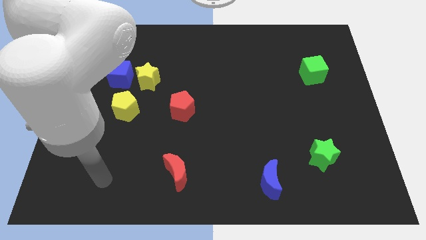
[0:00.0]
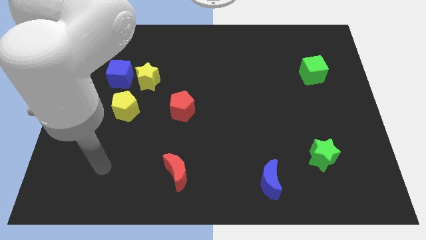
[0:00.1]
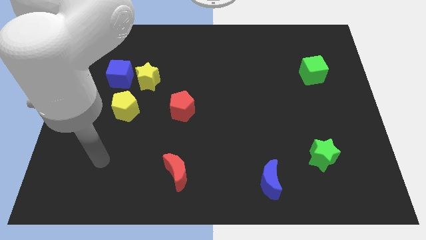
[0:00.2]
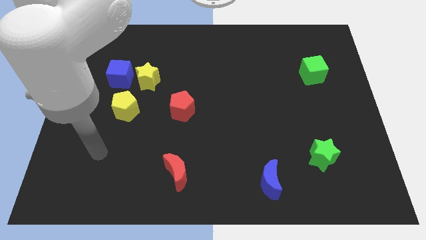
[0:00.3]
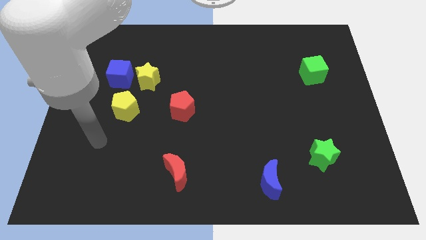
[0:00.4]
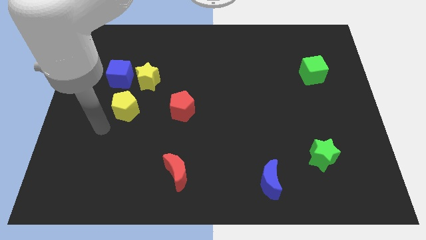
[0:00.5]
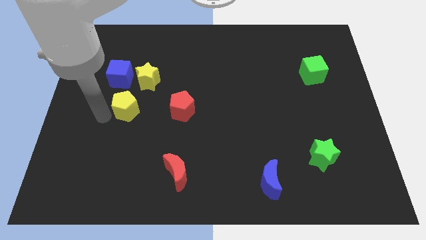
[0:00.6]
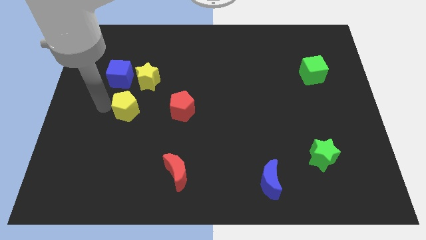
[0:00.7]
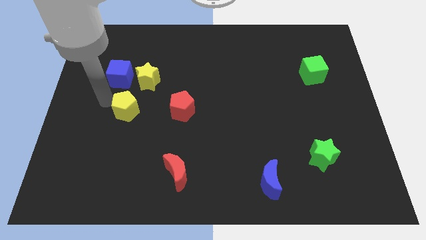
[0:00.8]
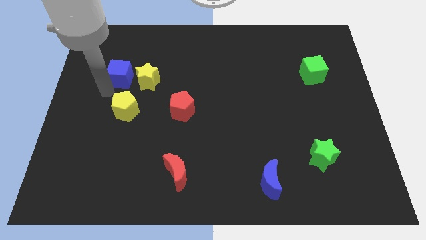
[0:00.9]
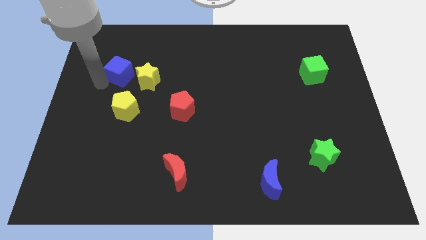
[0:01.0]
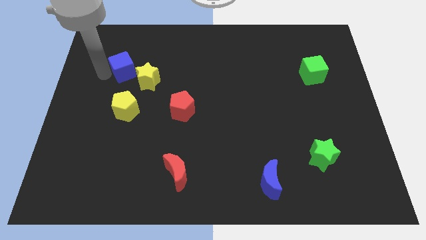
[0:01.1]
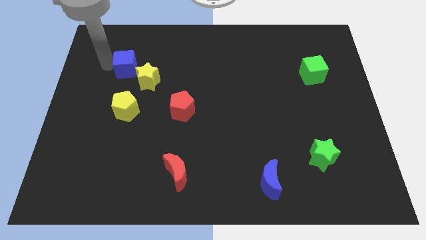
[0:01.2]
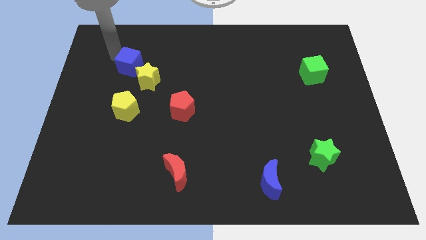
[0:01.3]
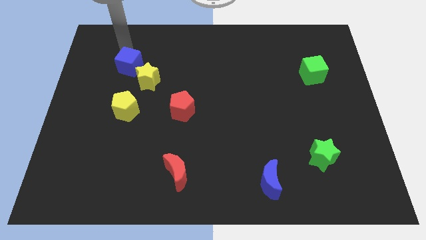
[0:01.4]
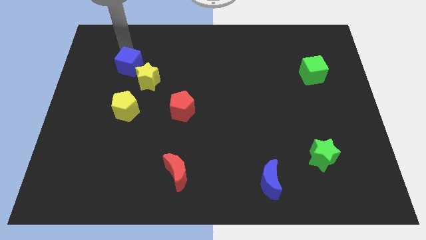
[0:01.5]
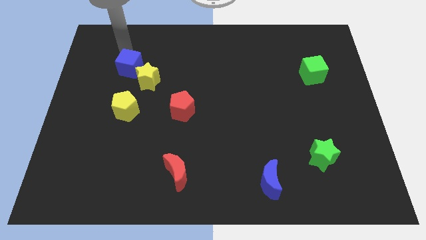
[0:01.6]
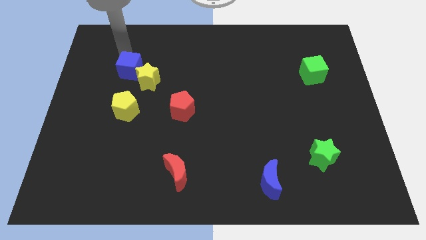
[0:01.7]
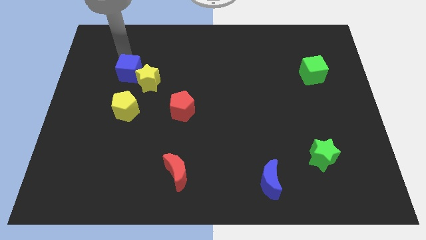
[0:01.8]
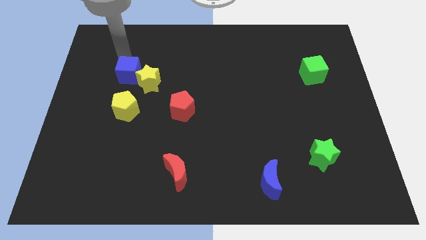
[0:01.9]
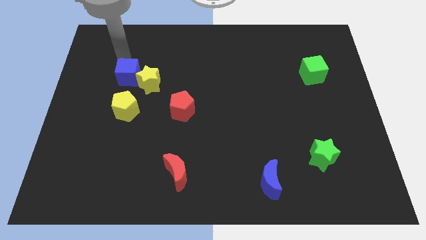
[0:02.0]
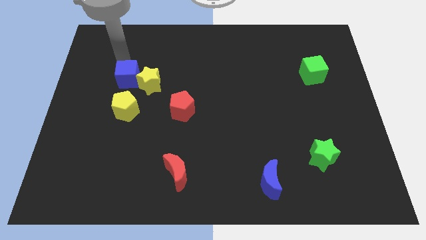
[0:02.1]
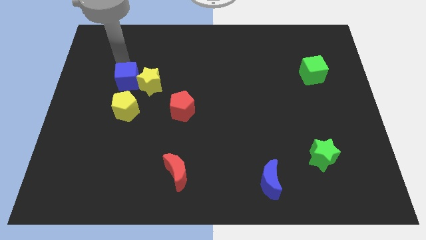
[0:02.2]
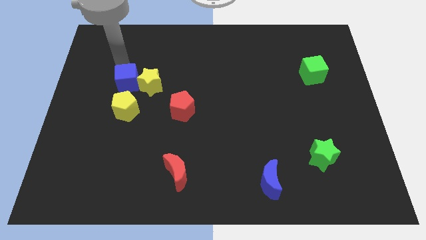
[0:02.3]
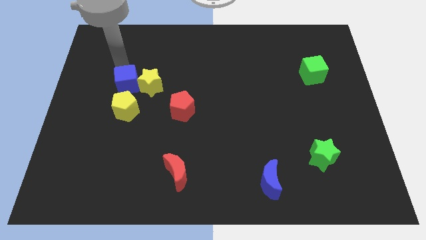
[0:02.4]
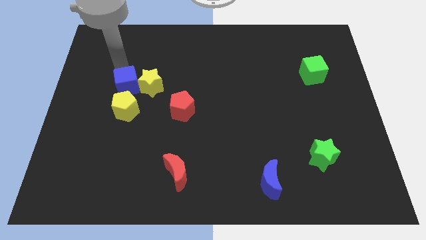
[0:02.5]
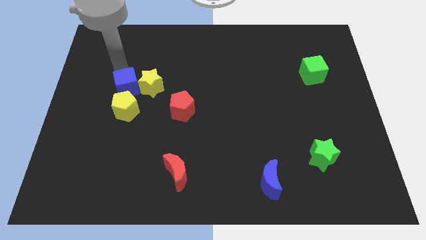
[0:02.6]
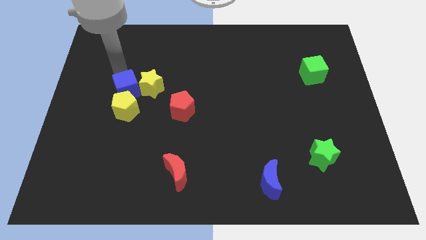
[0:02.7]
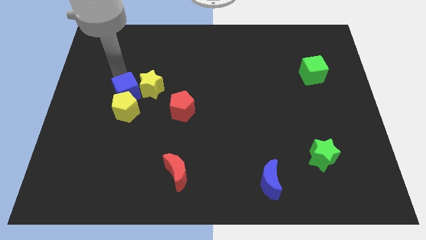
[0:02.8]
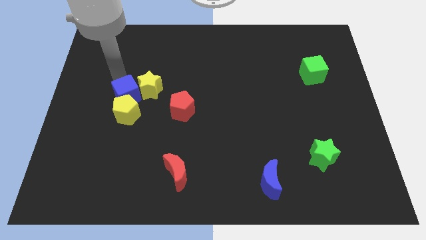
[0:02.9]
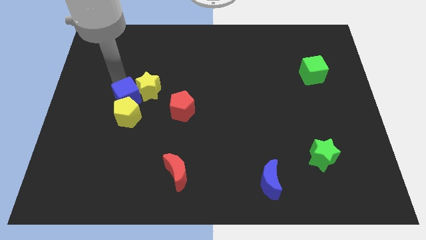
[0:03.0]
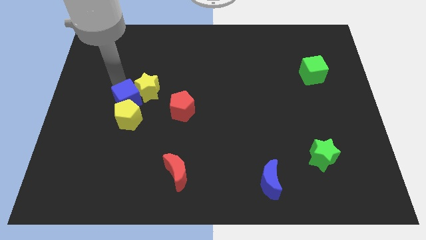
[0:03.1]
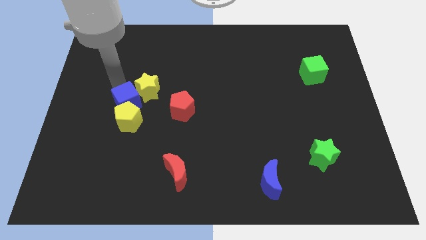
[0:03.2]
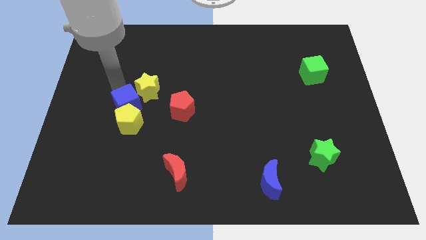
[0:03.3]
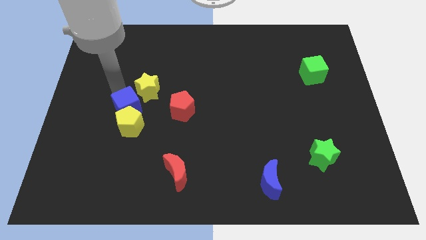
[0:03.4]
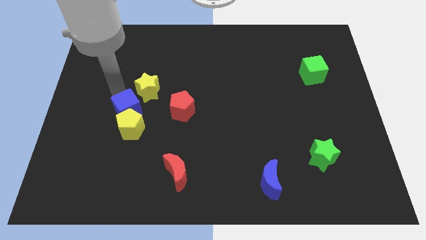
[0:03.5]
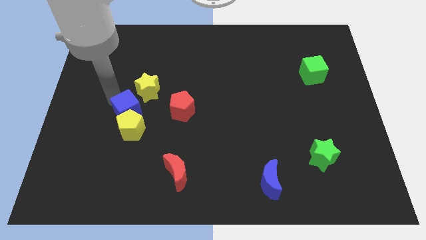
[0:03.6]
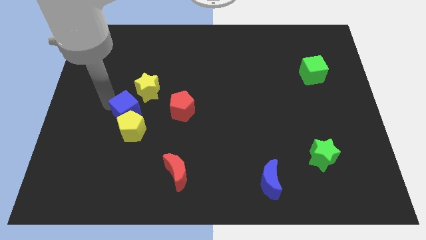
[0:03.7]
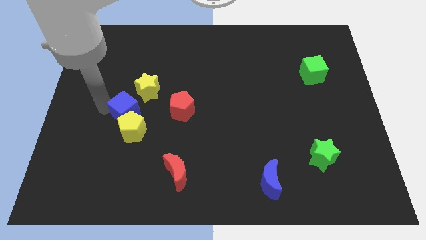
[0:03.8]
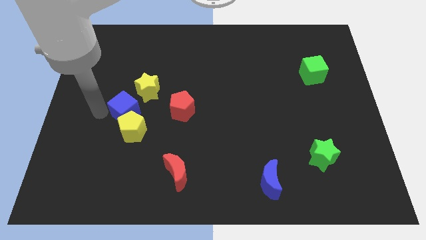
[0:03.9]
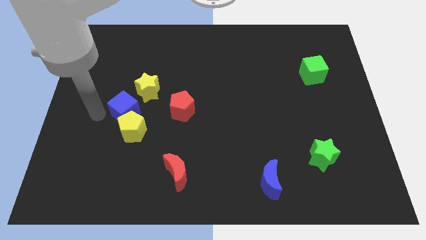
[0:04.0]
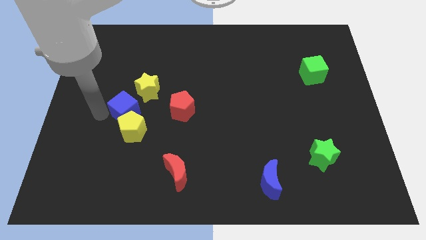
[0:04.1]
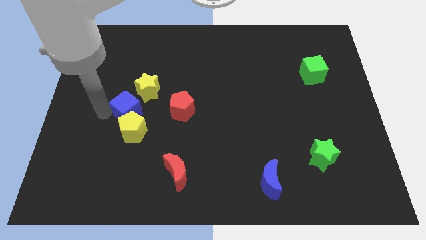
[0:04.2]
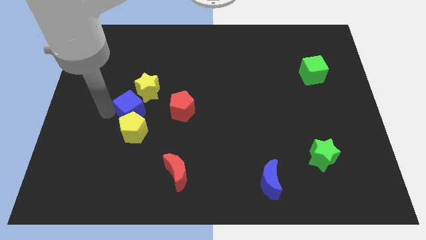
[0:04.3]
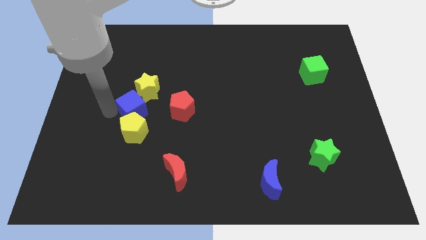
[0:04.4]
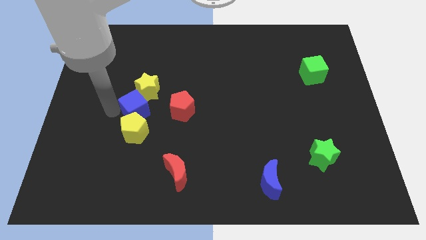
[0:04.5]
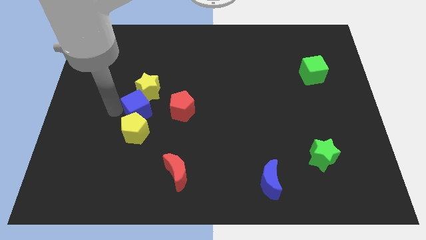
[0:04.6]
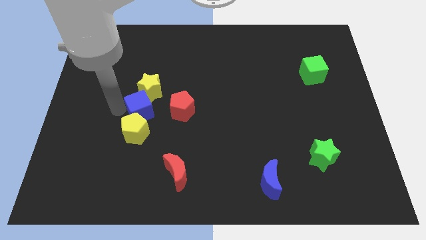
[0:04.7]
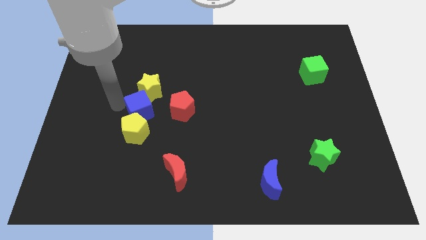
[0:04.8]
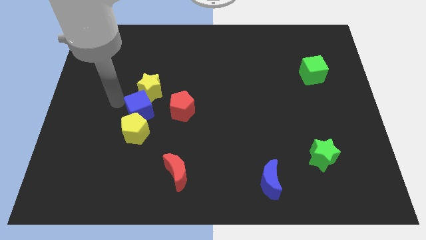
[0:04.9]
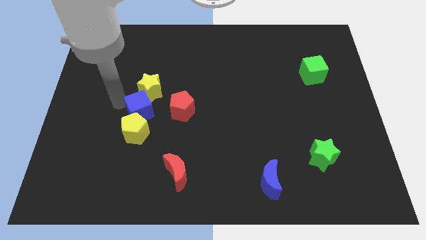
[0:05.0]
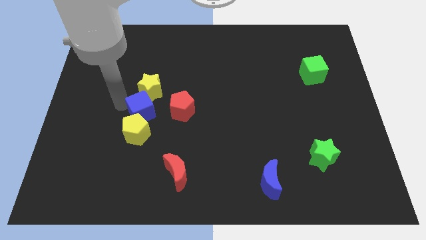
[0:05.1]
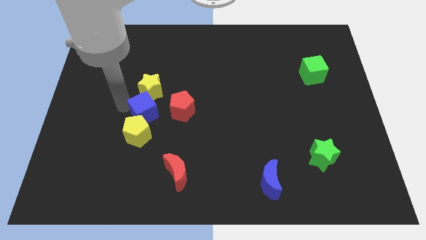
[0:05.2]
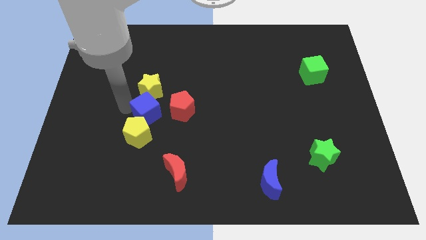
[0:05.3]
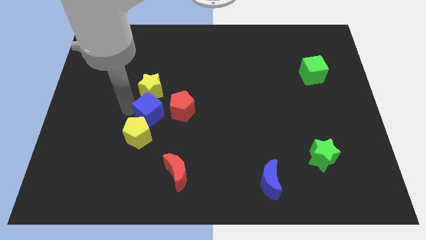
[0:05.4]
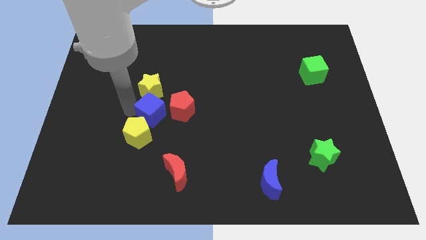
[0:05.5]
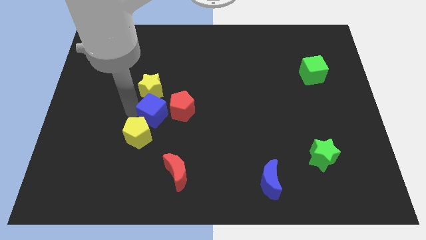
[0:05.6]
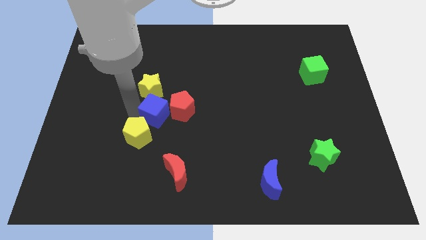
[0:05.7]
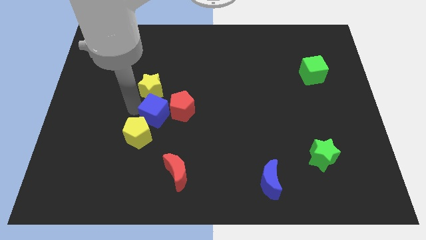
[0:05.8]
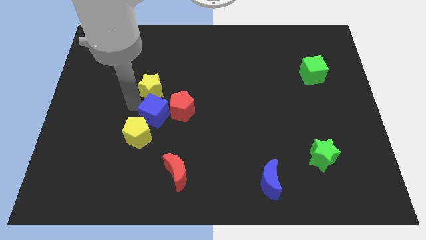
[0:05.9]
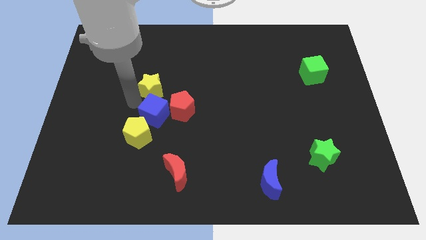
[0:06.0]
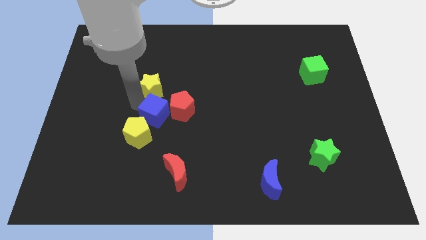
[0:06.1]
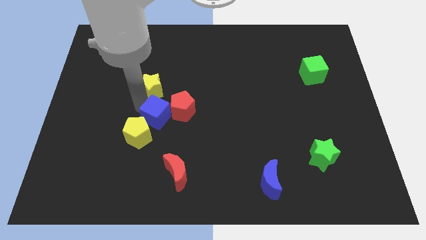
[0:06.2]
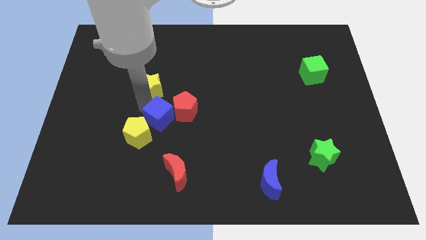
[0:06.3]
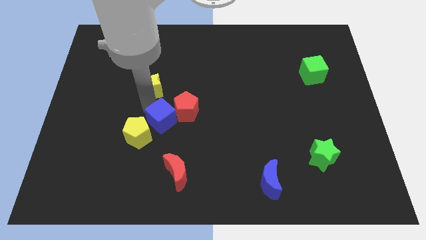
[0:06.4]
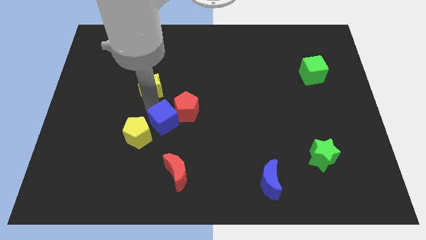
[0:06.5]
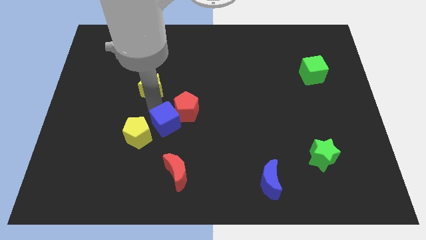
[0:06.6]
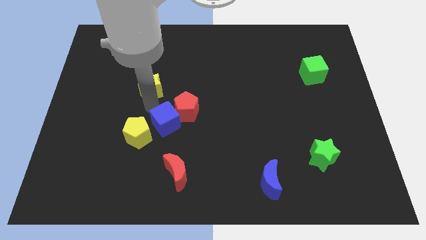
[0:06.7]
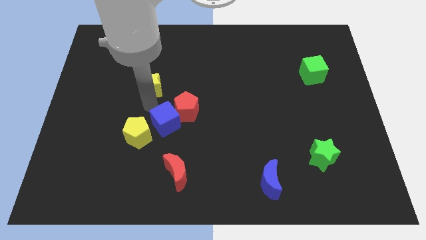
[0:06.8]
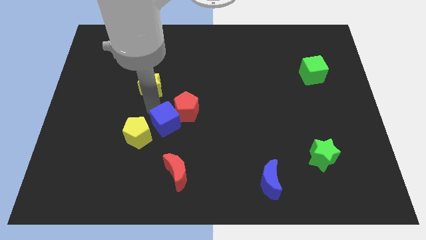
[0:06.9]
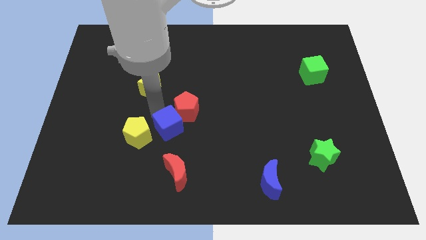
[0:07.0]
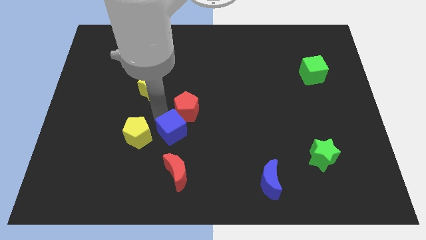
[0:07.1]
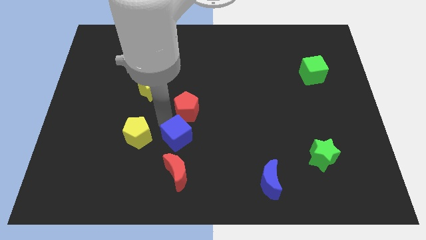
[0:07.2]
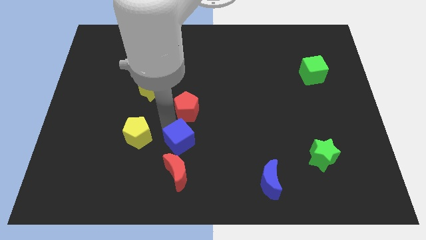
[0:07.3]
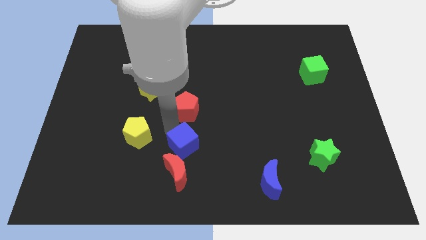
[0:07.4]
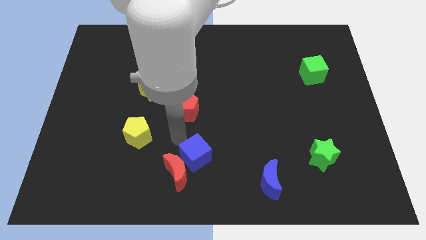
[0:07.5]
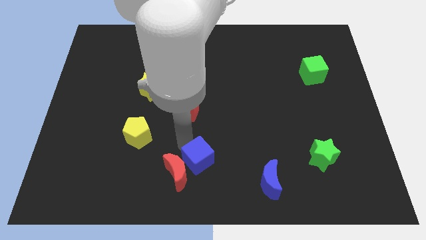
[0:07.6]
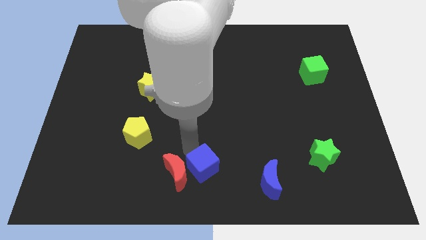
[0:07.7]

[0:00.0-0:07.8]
move the blue cube left of the blue moon
